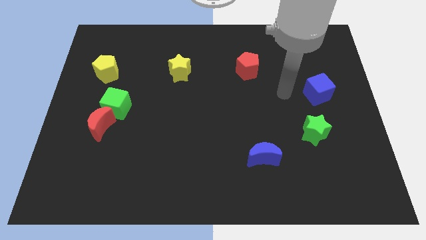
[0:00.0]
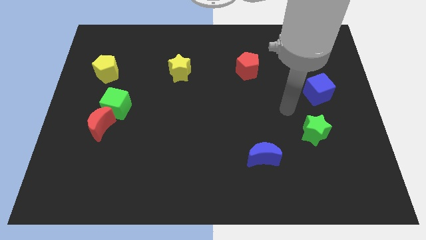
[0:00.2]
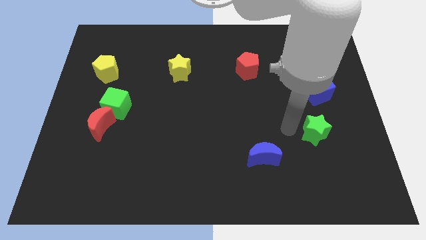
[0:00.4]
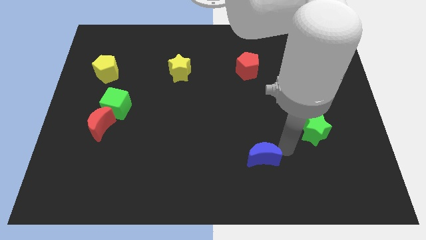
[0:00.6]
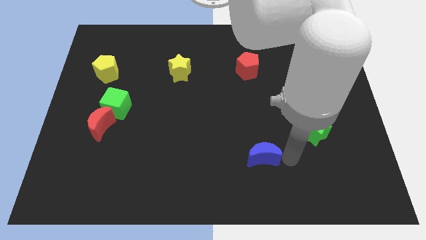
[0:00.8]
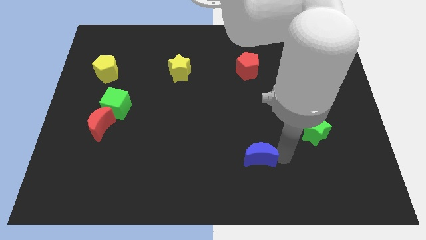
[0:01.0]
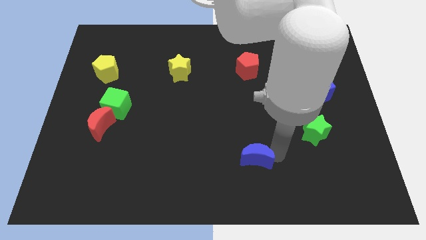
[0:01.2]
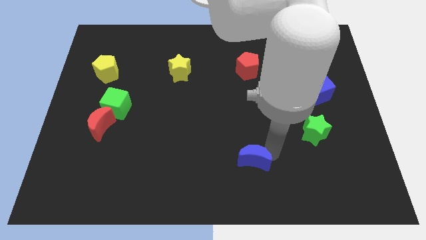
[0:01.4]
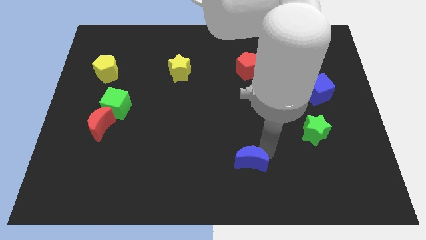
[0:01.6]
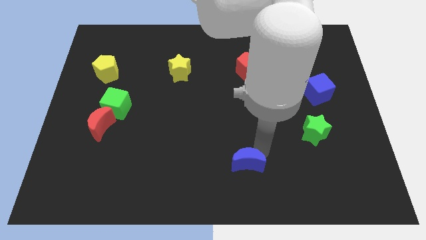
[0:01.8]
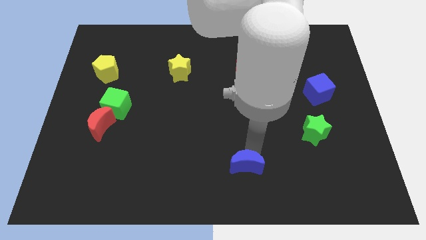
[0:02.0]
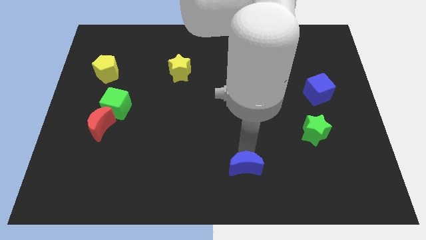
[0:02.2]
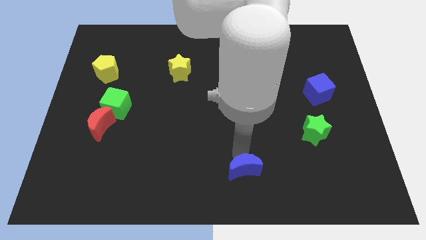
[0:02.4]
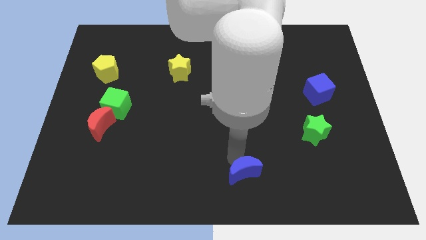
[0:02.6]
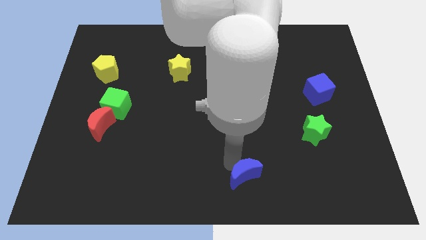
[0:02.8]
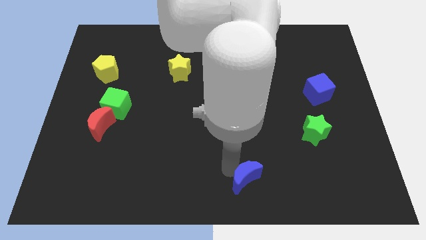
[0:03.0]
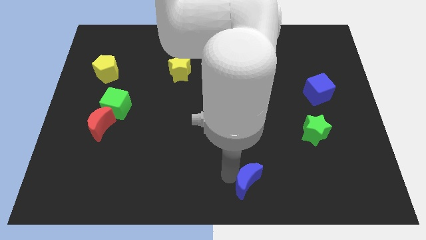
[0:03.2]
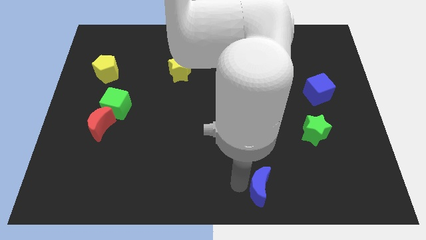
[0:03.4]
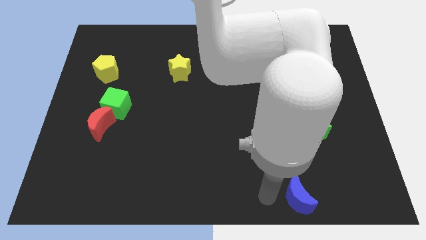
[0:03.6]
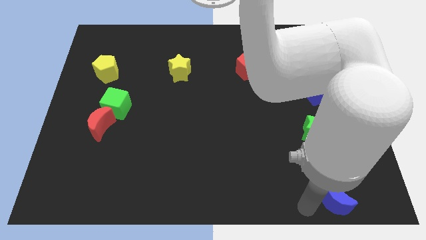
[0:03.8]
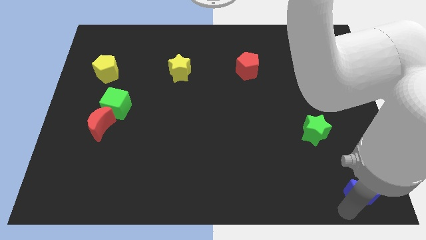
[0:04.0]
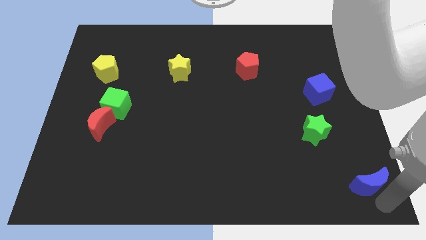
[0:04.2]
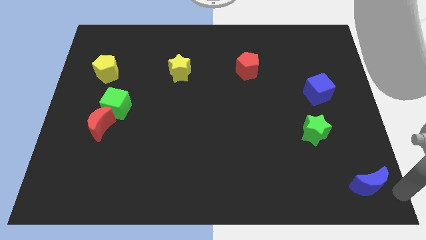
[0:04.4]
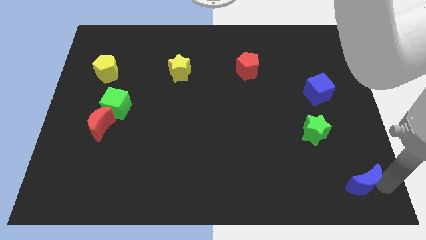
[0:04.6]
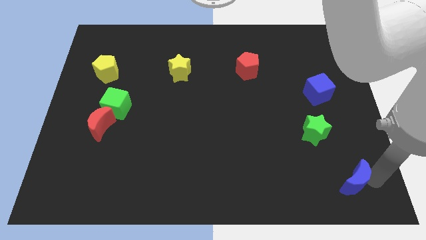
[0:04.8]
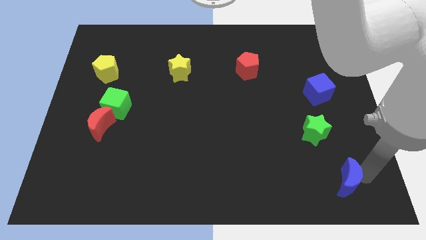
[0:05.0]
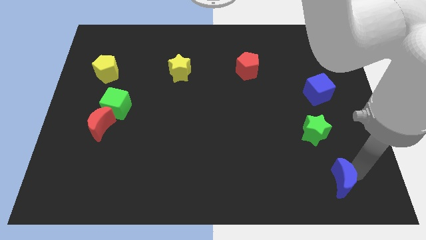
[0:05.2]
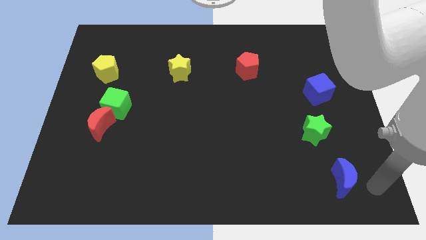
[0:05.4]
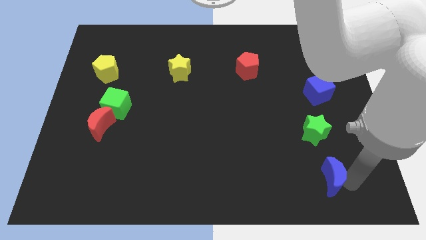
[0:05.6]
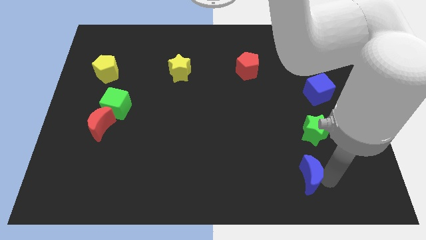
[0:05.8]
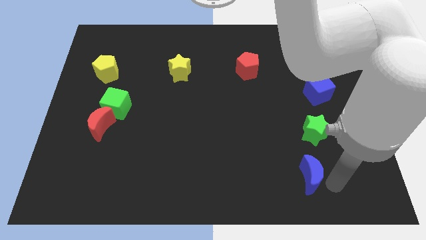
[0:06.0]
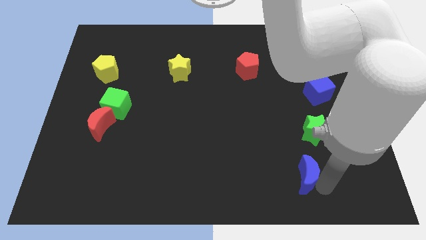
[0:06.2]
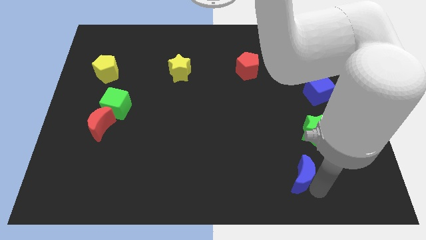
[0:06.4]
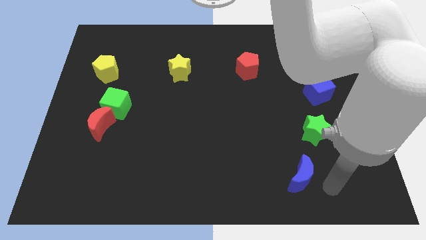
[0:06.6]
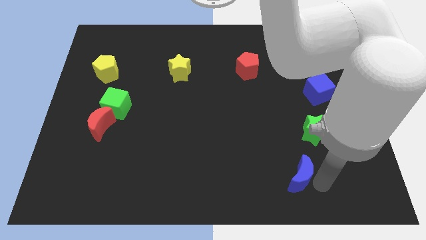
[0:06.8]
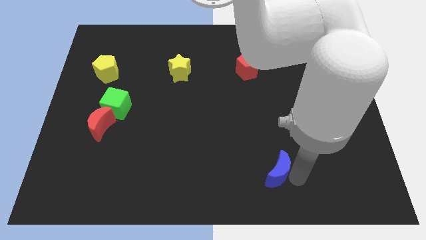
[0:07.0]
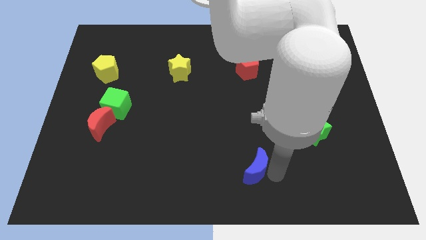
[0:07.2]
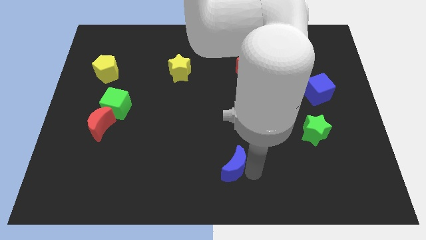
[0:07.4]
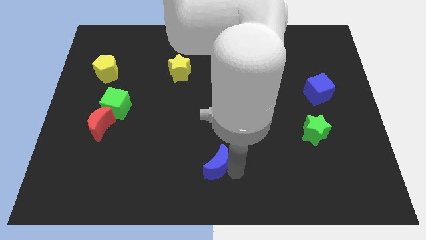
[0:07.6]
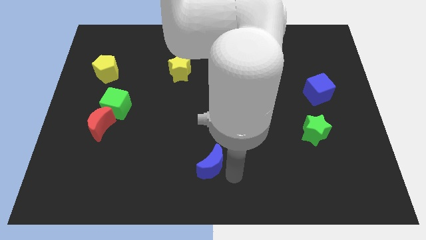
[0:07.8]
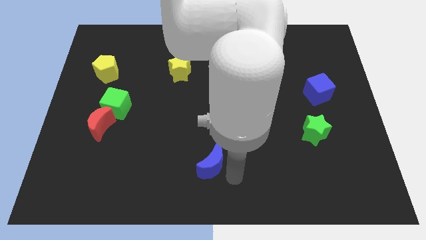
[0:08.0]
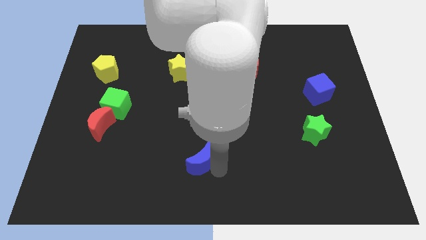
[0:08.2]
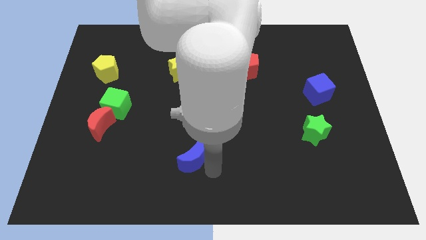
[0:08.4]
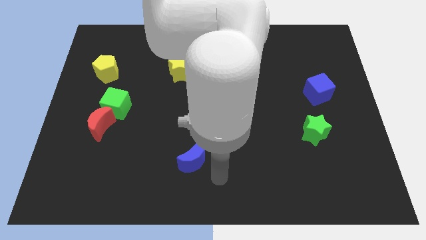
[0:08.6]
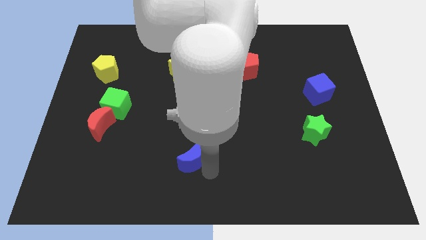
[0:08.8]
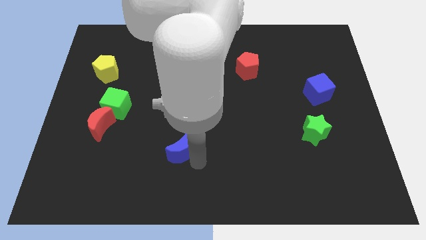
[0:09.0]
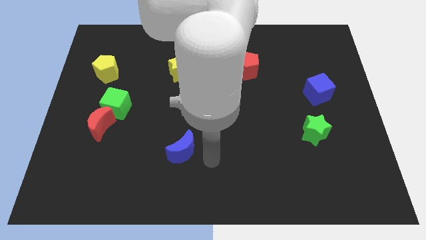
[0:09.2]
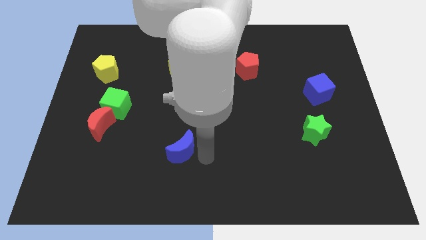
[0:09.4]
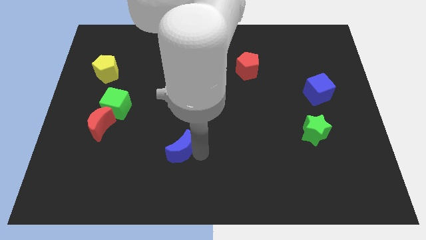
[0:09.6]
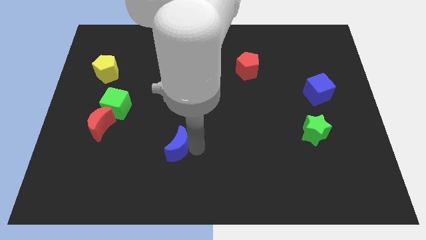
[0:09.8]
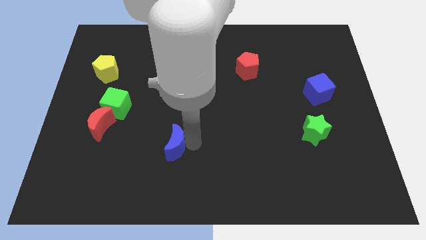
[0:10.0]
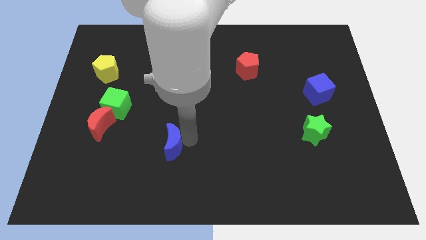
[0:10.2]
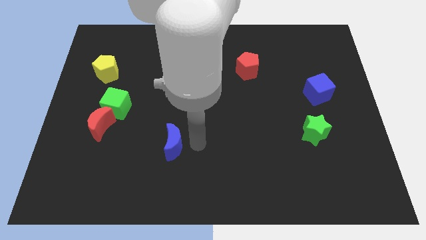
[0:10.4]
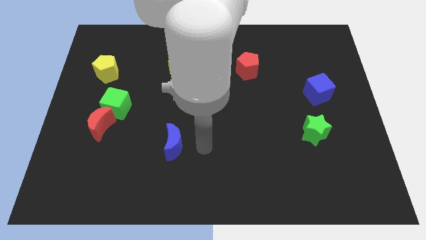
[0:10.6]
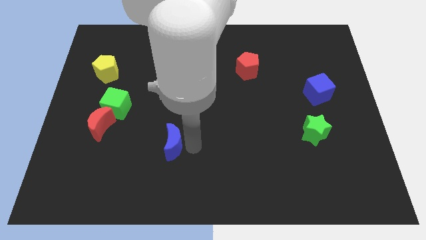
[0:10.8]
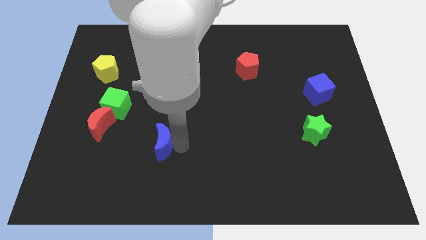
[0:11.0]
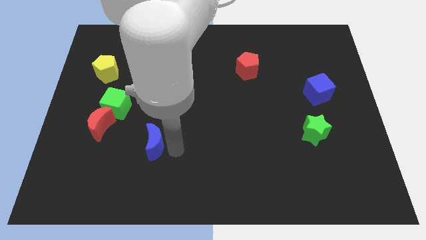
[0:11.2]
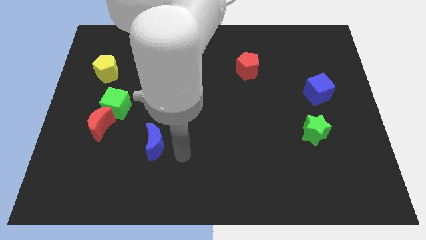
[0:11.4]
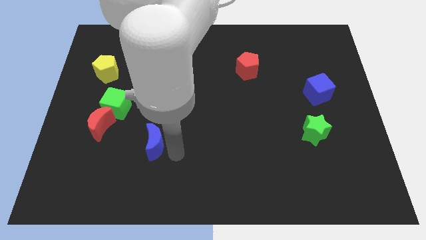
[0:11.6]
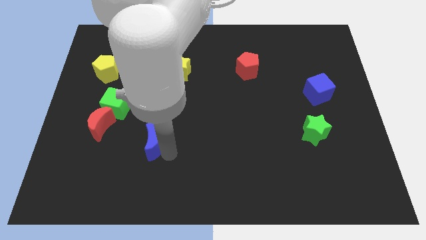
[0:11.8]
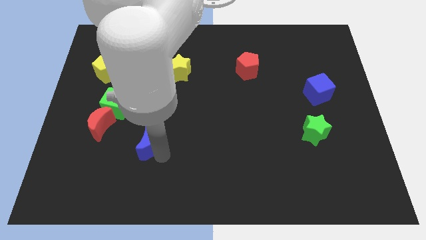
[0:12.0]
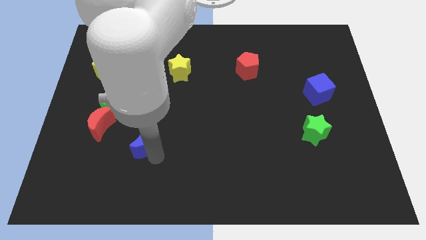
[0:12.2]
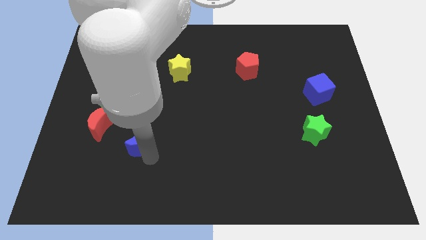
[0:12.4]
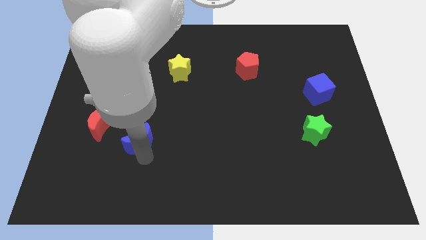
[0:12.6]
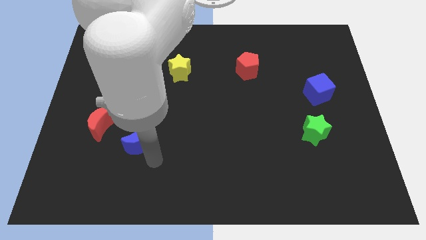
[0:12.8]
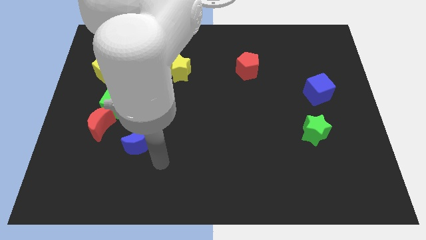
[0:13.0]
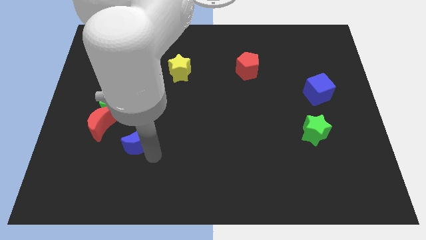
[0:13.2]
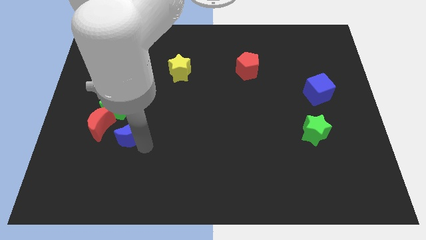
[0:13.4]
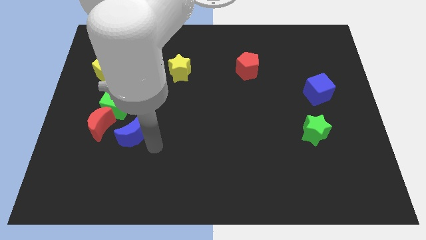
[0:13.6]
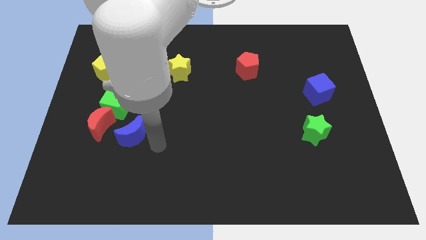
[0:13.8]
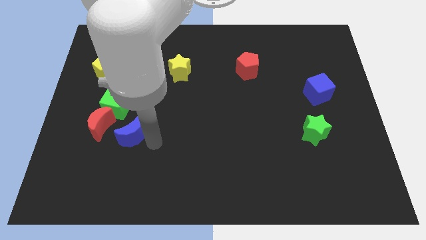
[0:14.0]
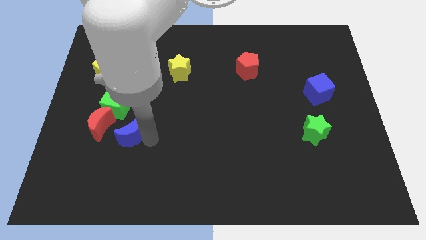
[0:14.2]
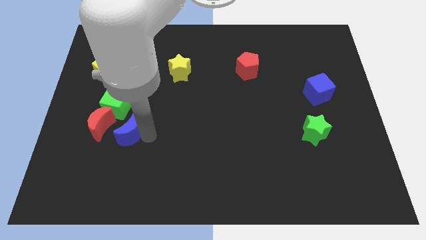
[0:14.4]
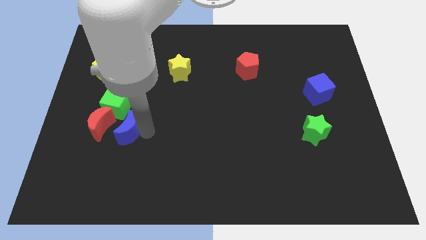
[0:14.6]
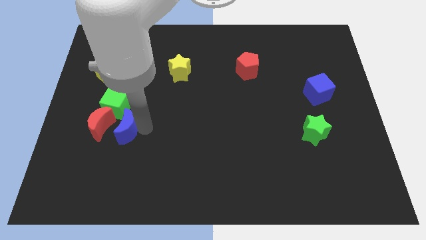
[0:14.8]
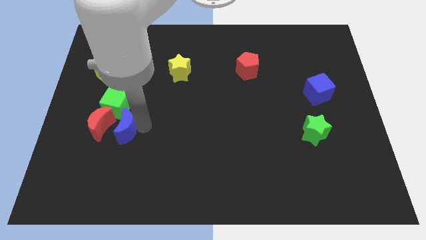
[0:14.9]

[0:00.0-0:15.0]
put the blue moon close to the red moon
